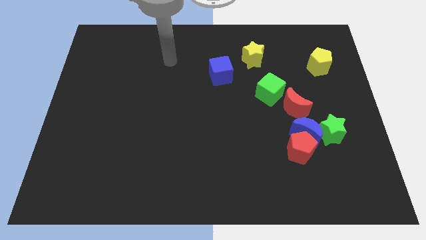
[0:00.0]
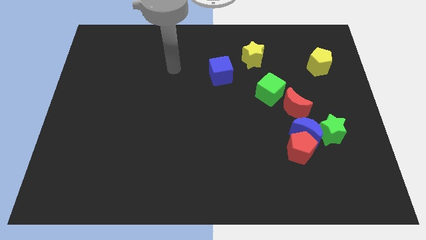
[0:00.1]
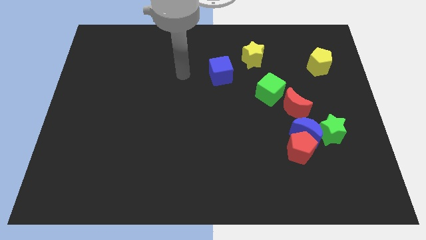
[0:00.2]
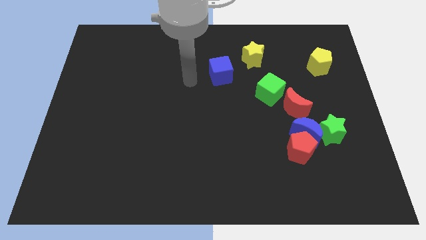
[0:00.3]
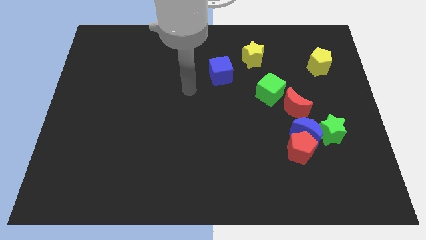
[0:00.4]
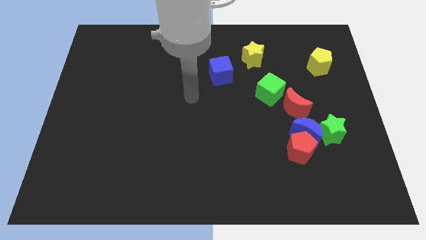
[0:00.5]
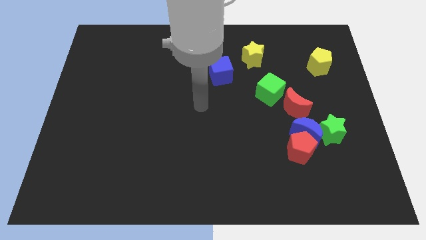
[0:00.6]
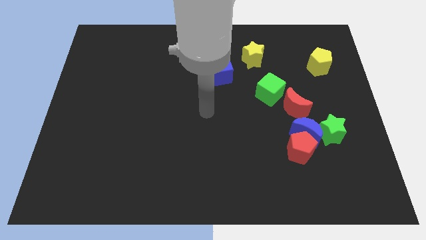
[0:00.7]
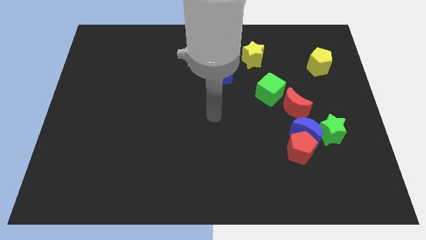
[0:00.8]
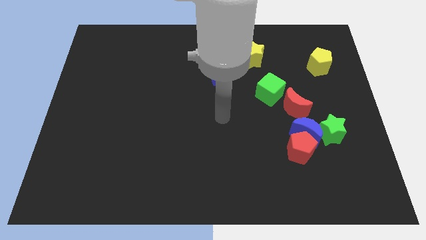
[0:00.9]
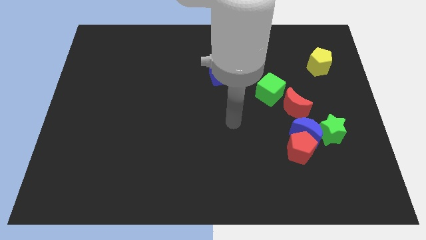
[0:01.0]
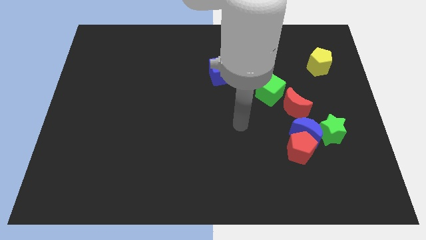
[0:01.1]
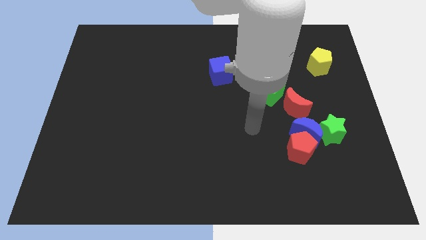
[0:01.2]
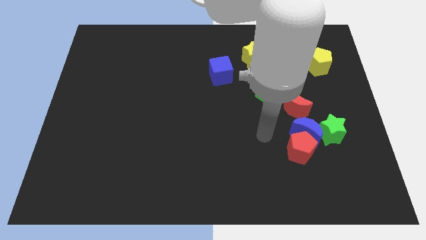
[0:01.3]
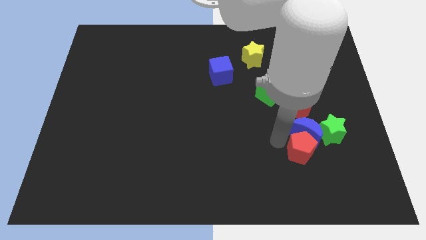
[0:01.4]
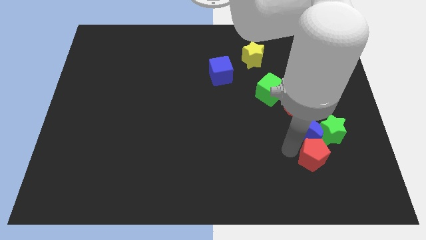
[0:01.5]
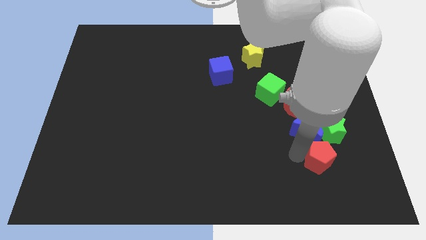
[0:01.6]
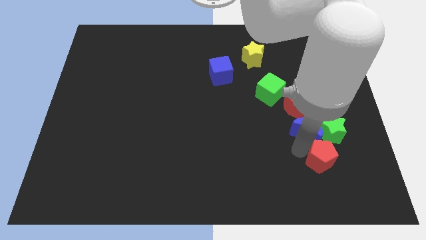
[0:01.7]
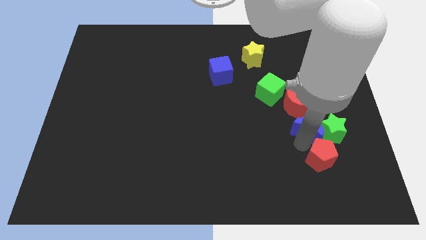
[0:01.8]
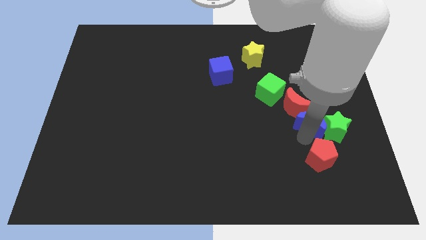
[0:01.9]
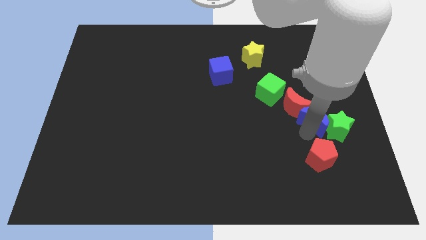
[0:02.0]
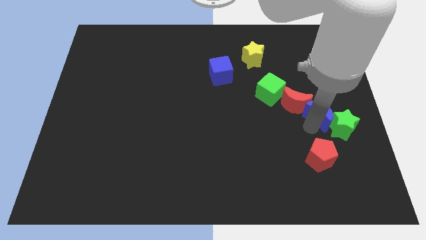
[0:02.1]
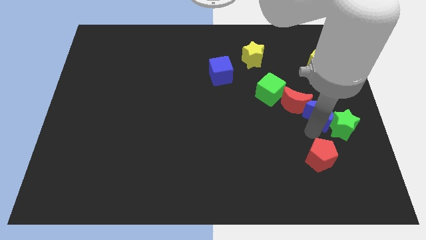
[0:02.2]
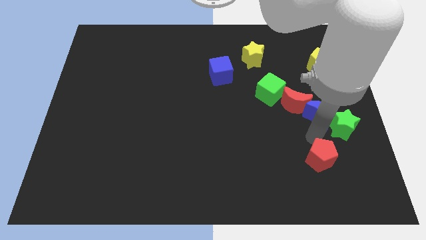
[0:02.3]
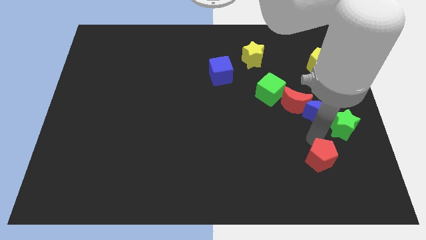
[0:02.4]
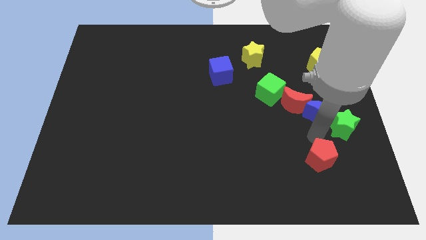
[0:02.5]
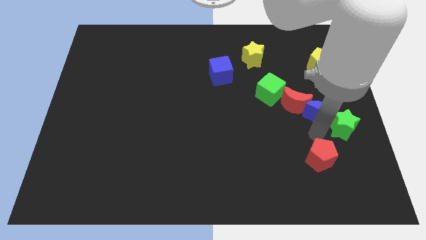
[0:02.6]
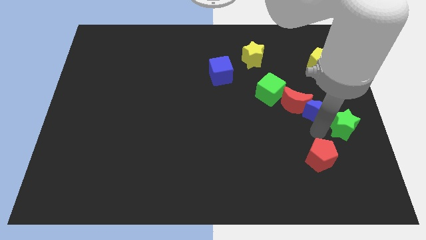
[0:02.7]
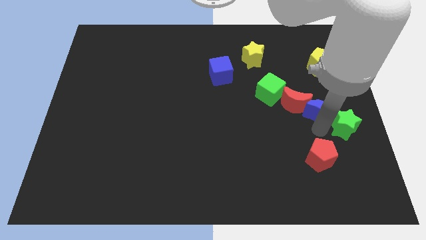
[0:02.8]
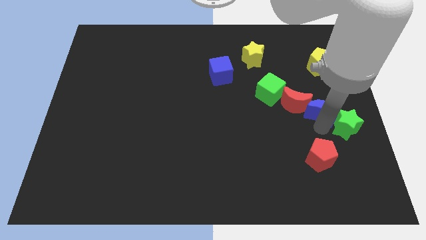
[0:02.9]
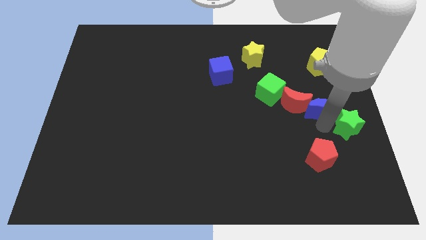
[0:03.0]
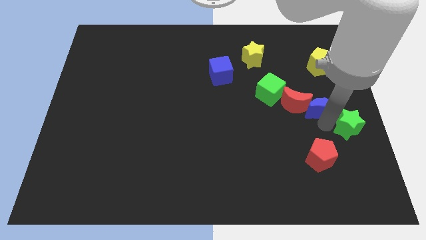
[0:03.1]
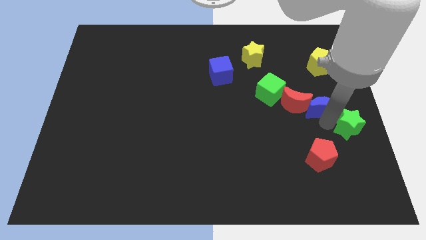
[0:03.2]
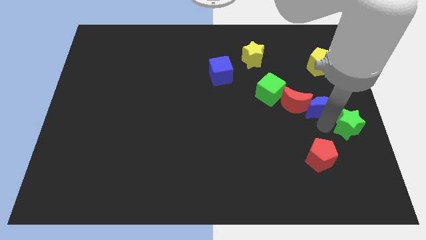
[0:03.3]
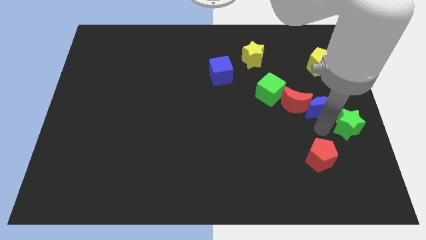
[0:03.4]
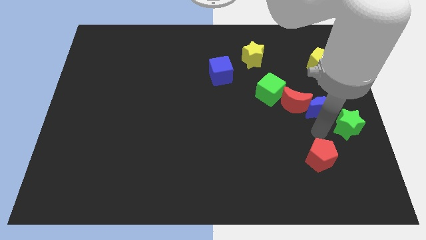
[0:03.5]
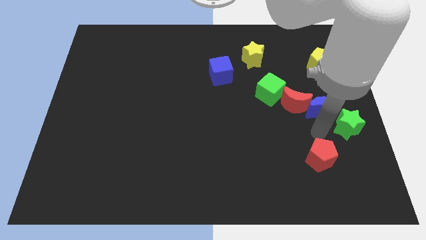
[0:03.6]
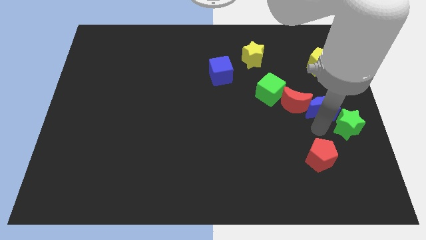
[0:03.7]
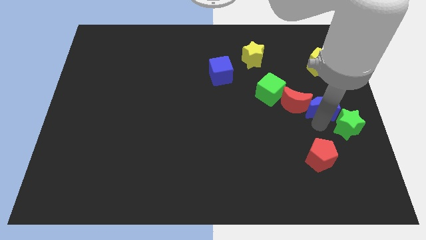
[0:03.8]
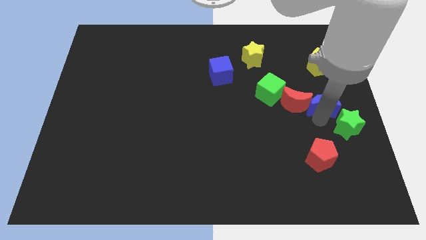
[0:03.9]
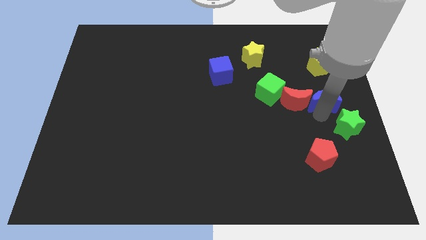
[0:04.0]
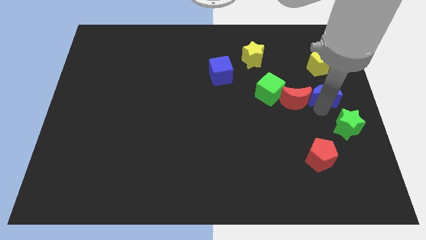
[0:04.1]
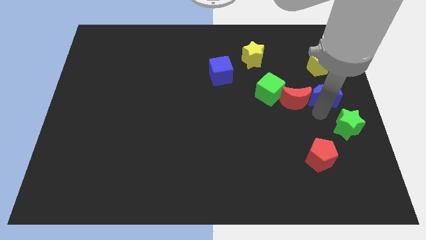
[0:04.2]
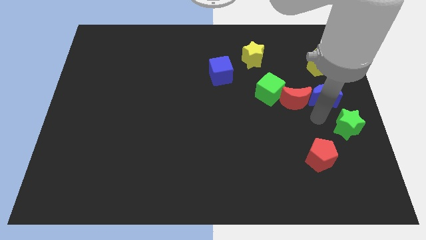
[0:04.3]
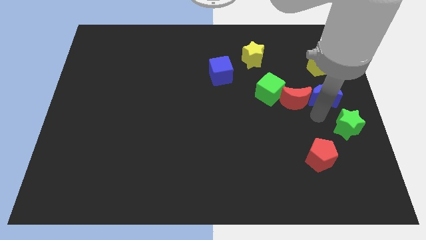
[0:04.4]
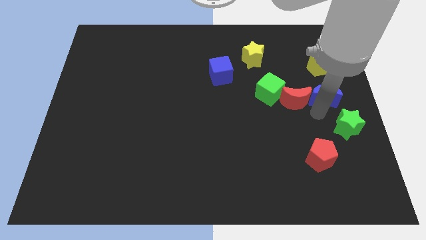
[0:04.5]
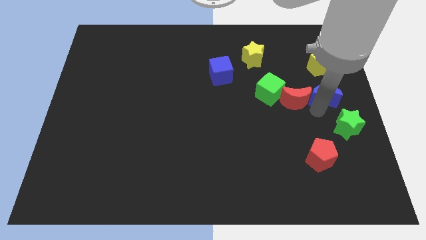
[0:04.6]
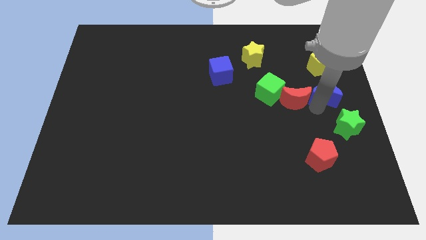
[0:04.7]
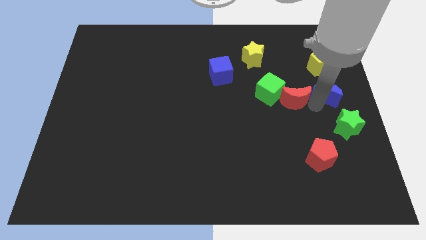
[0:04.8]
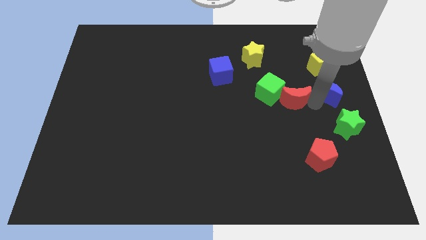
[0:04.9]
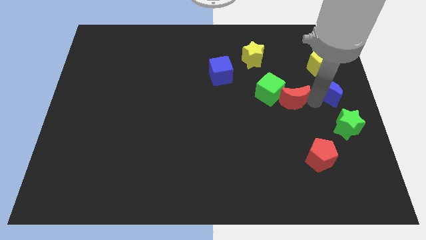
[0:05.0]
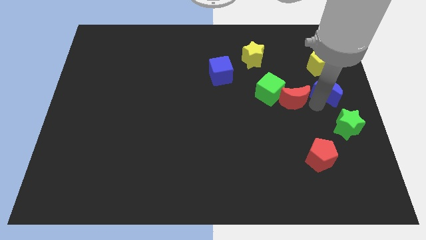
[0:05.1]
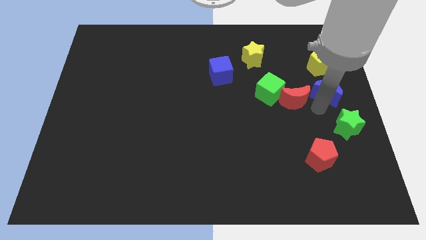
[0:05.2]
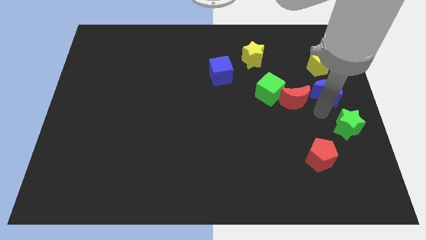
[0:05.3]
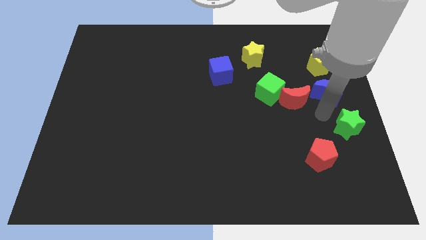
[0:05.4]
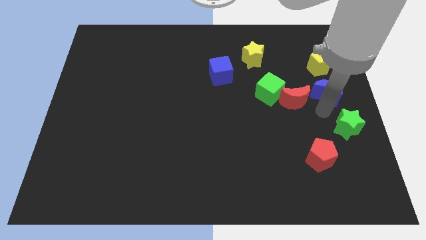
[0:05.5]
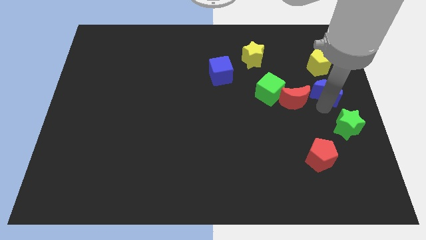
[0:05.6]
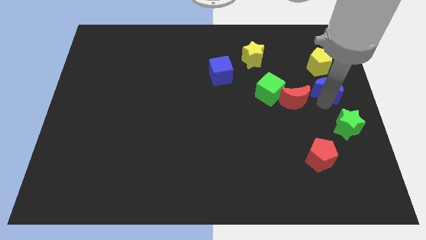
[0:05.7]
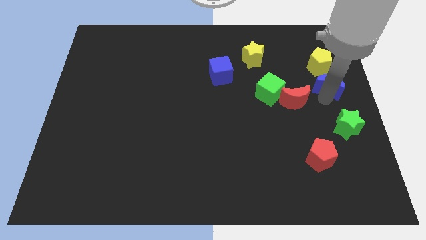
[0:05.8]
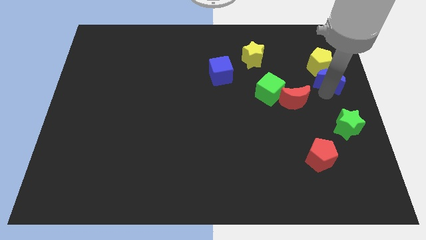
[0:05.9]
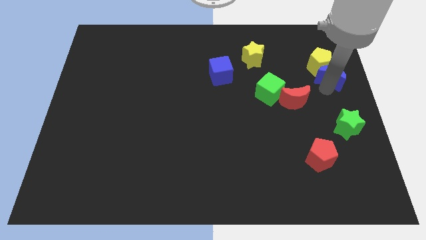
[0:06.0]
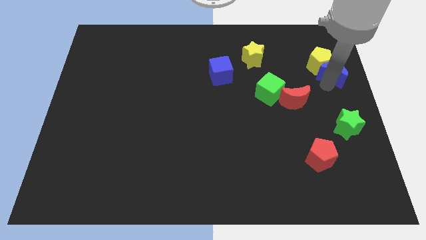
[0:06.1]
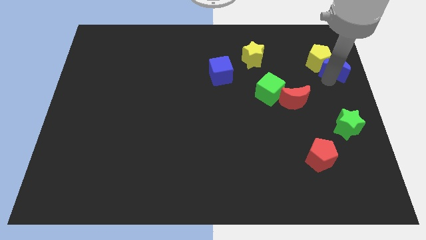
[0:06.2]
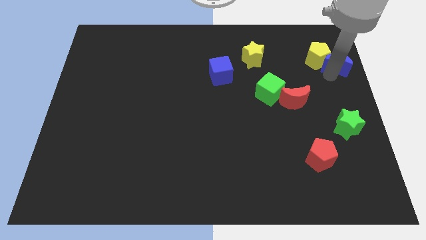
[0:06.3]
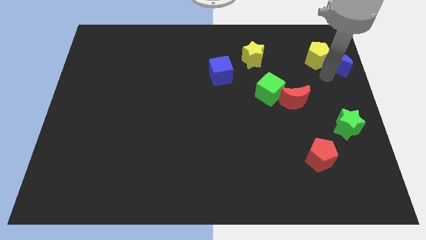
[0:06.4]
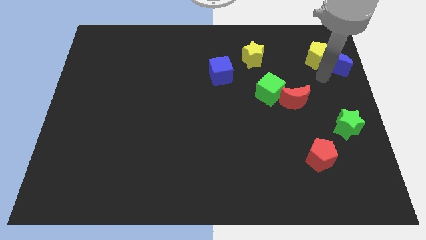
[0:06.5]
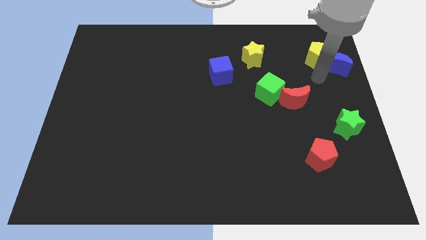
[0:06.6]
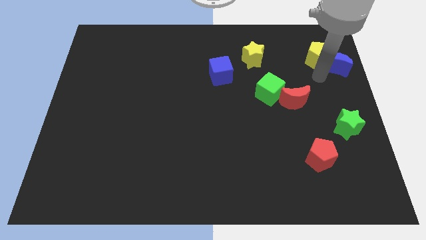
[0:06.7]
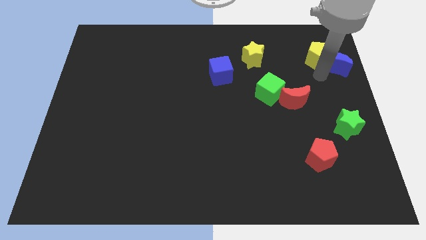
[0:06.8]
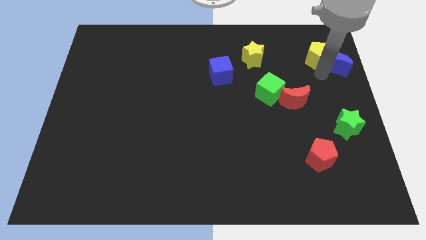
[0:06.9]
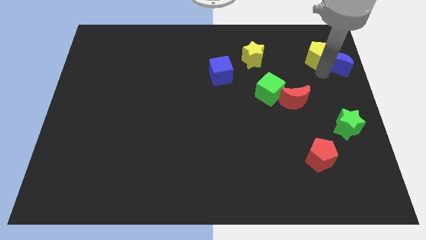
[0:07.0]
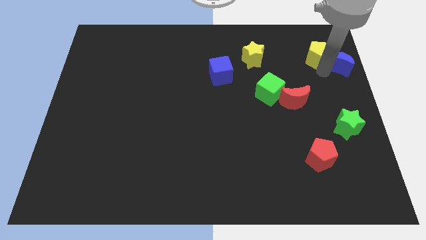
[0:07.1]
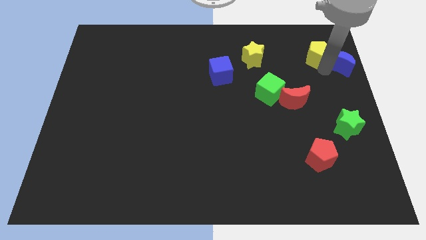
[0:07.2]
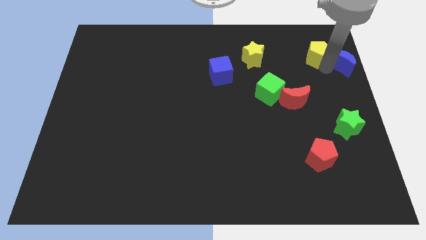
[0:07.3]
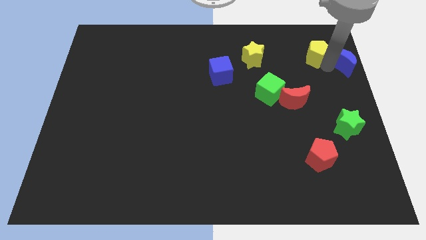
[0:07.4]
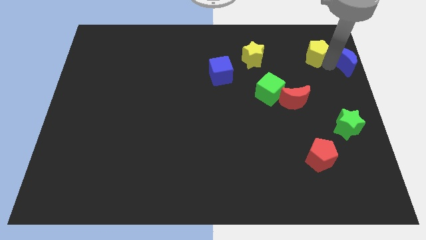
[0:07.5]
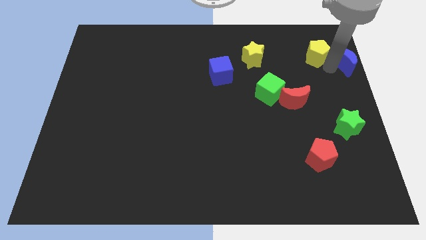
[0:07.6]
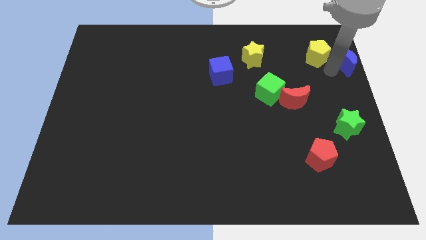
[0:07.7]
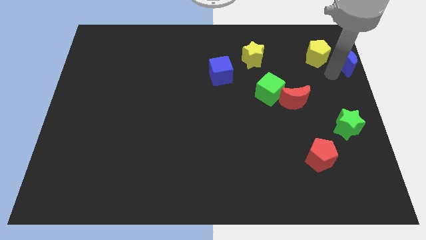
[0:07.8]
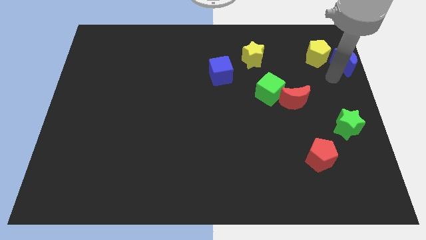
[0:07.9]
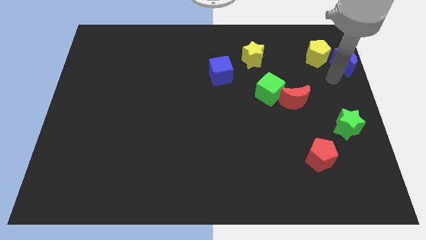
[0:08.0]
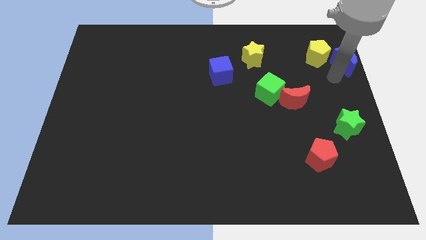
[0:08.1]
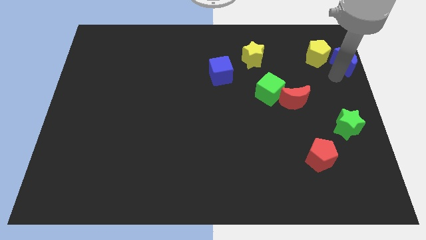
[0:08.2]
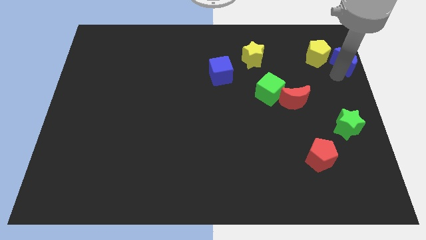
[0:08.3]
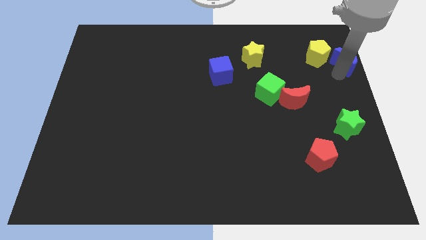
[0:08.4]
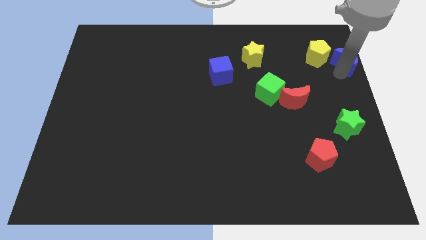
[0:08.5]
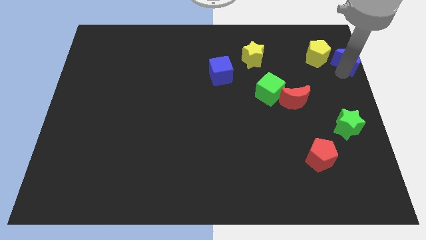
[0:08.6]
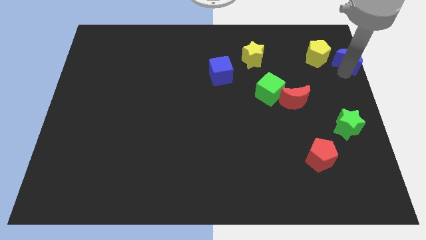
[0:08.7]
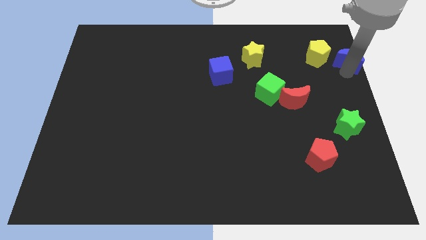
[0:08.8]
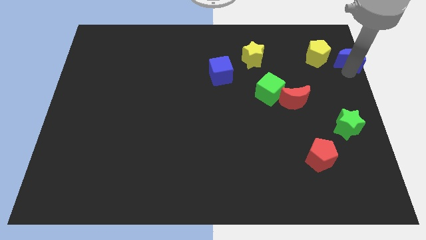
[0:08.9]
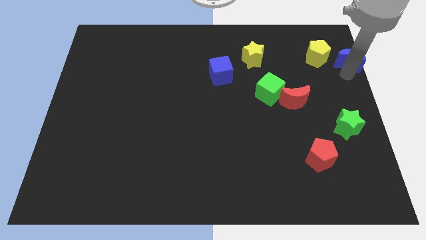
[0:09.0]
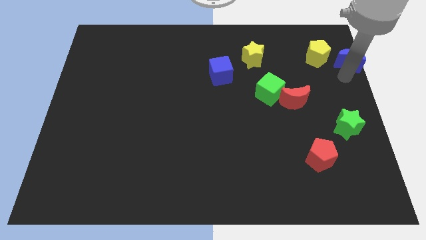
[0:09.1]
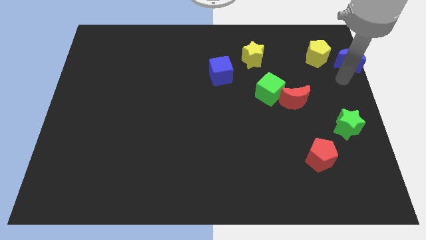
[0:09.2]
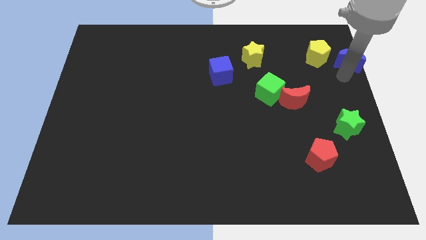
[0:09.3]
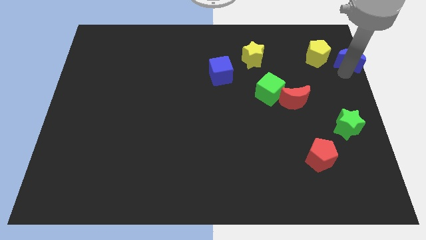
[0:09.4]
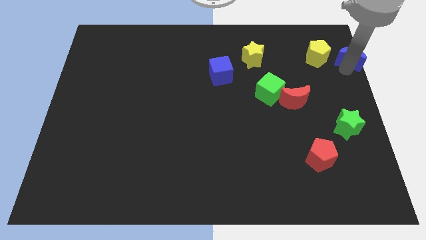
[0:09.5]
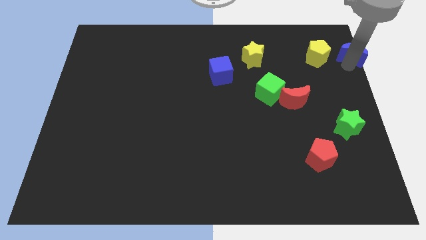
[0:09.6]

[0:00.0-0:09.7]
move the blue moon to the top right corner
